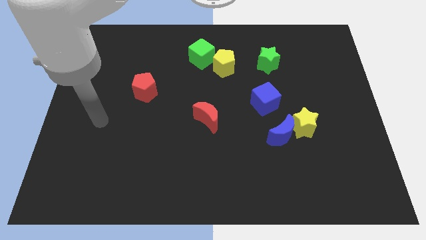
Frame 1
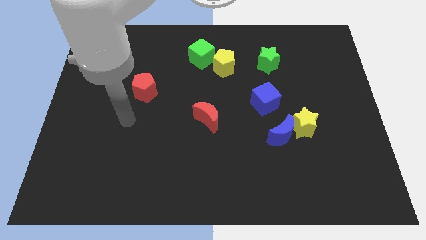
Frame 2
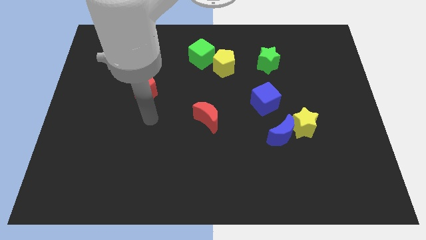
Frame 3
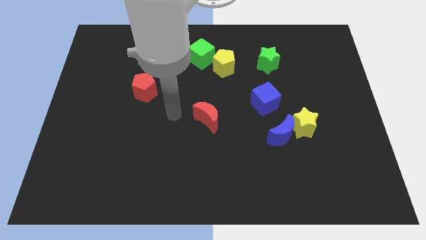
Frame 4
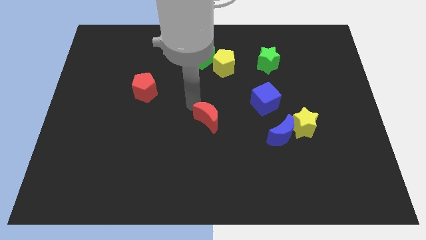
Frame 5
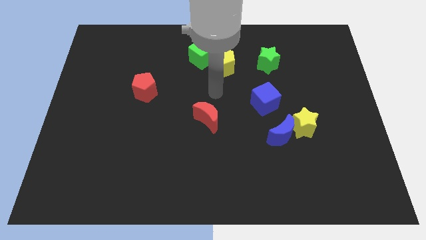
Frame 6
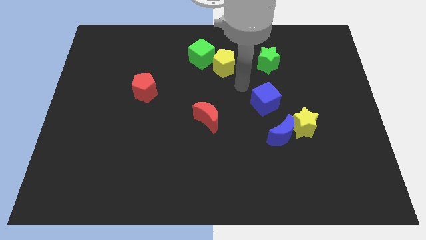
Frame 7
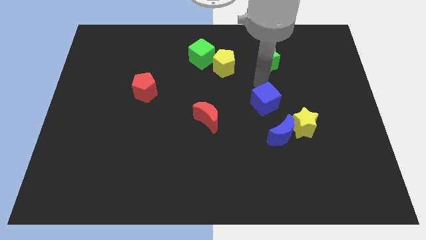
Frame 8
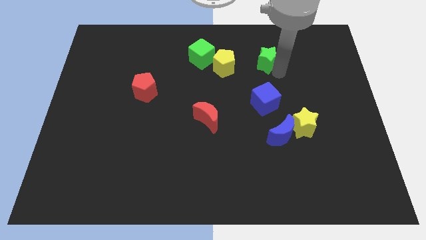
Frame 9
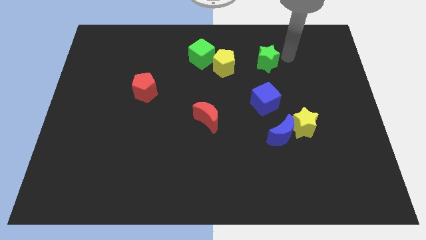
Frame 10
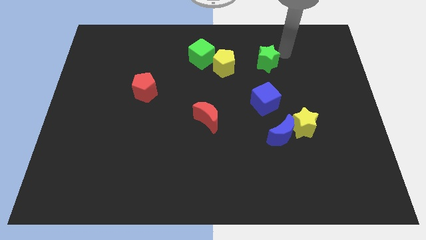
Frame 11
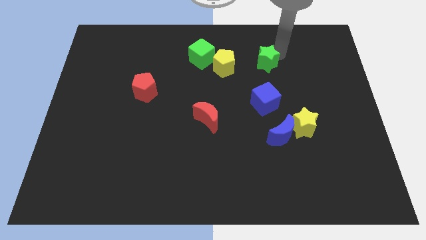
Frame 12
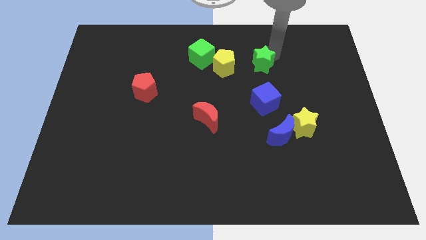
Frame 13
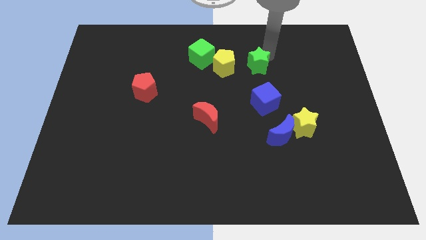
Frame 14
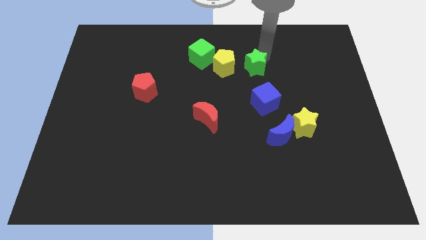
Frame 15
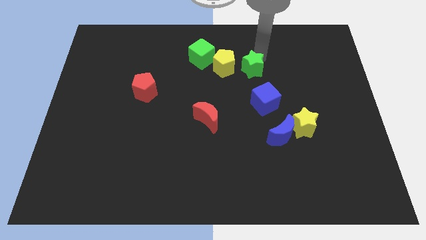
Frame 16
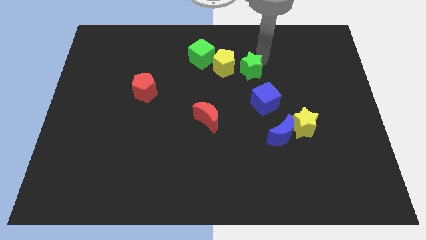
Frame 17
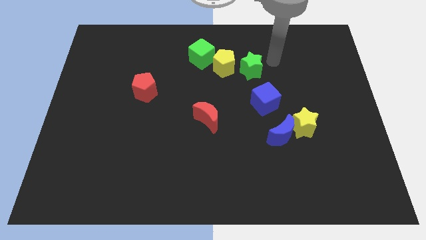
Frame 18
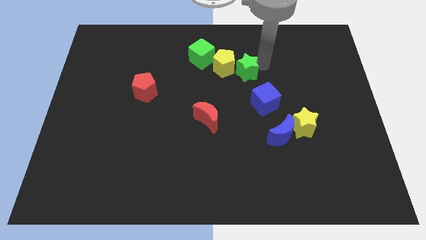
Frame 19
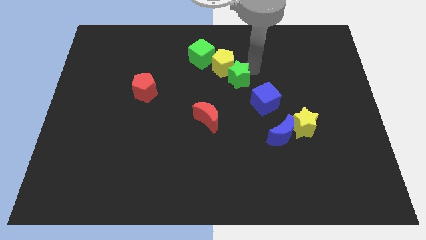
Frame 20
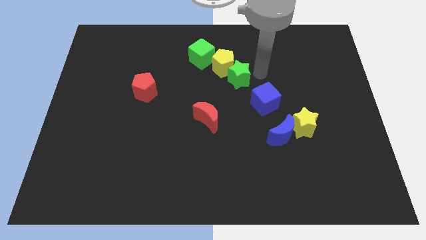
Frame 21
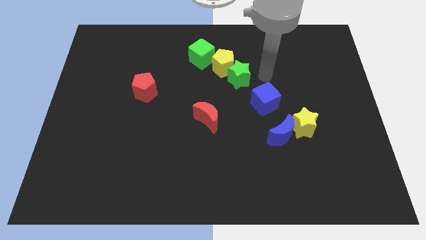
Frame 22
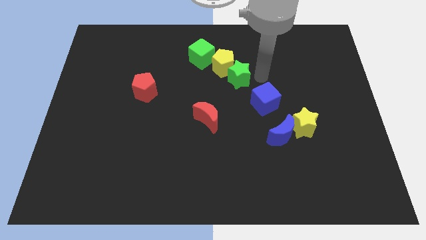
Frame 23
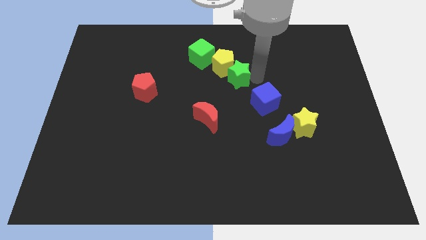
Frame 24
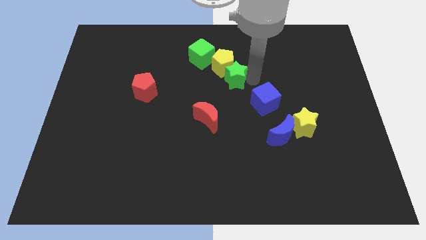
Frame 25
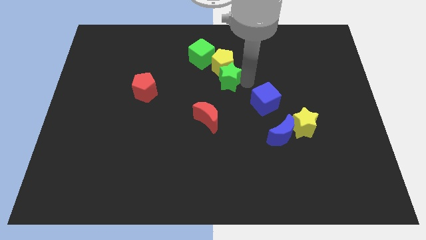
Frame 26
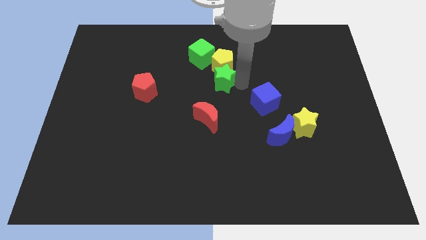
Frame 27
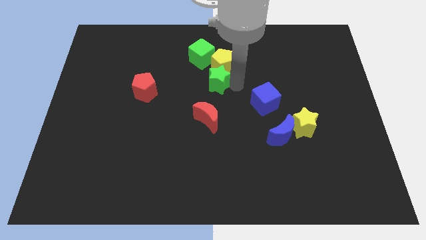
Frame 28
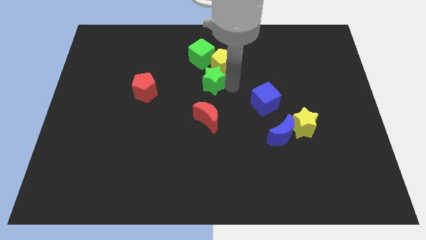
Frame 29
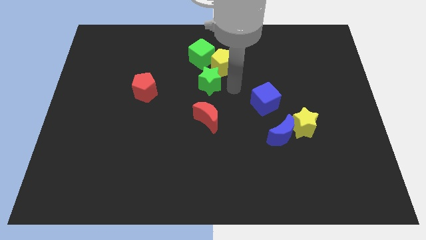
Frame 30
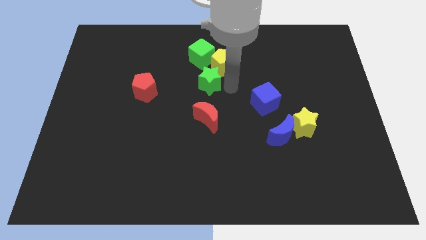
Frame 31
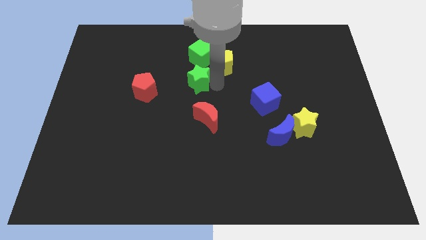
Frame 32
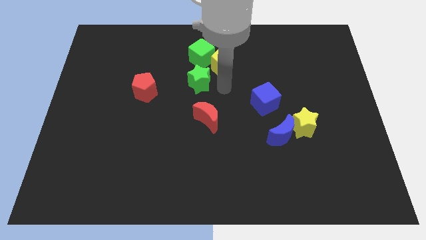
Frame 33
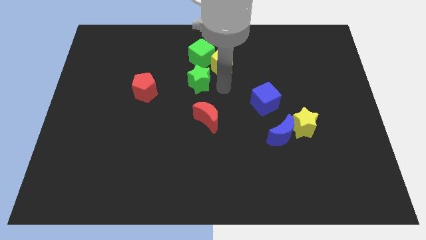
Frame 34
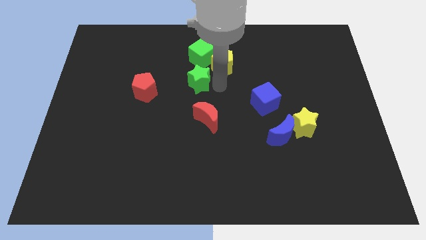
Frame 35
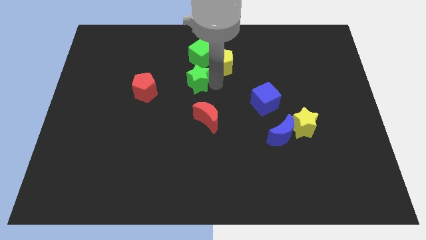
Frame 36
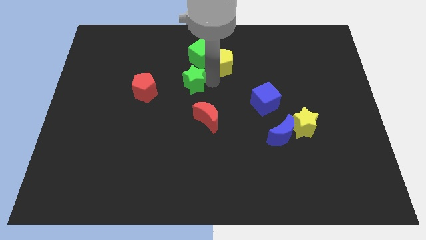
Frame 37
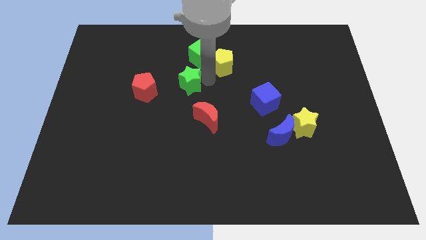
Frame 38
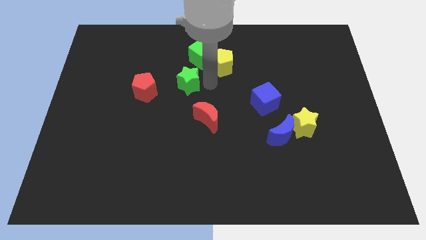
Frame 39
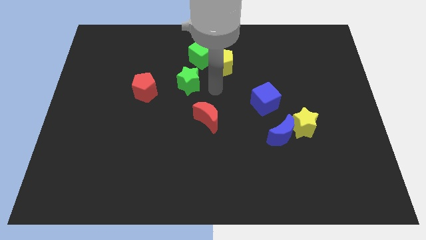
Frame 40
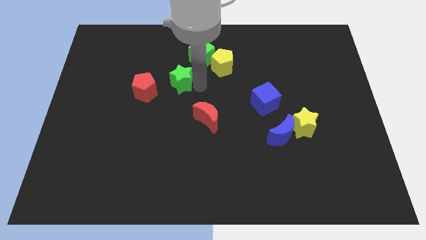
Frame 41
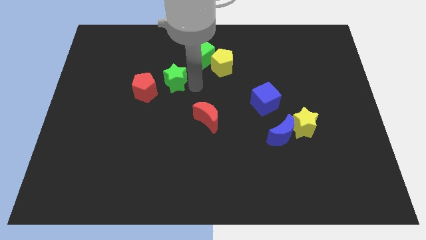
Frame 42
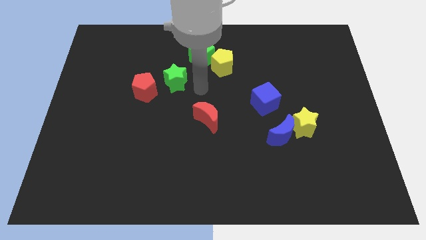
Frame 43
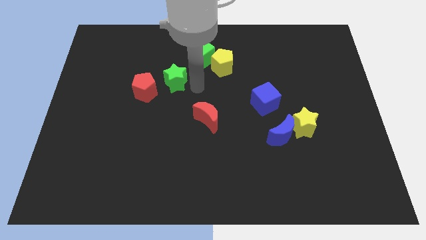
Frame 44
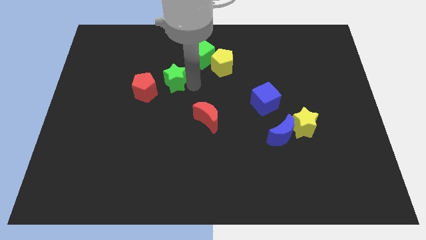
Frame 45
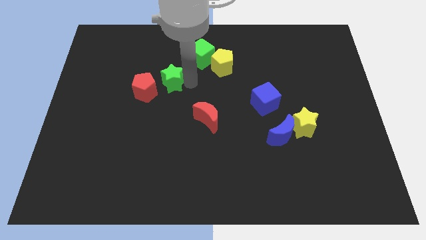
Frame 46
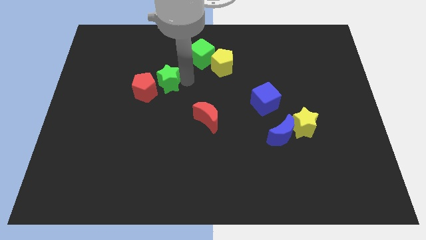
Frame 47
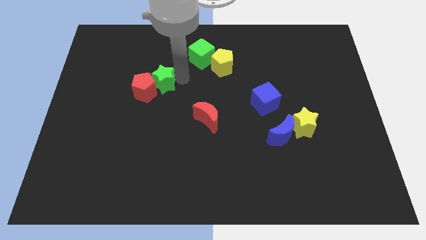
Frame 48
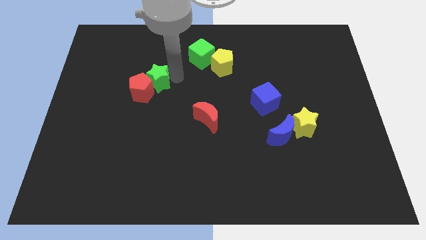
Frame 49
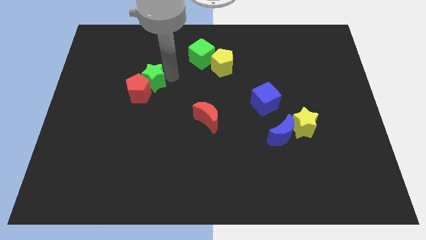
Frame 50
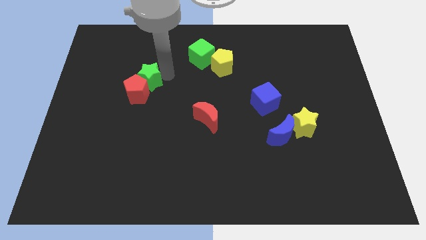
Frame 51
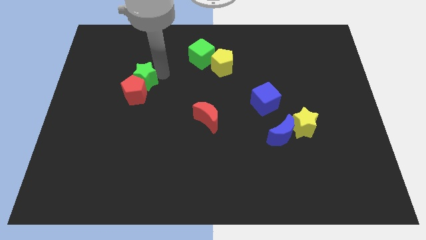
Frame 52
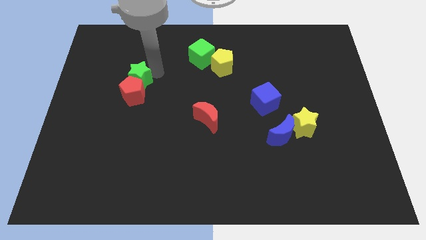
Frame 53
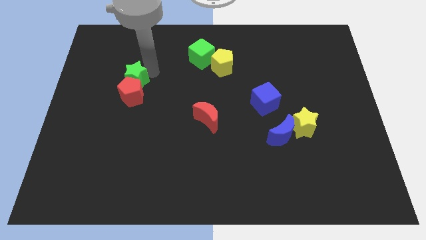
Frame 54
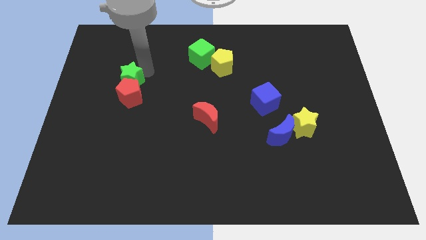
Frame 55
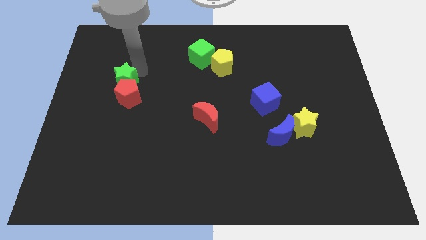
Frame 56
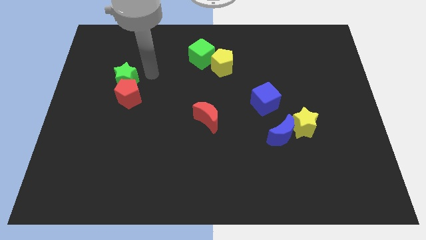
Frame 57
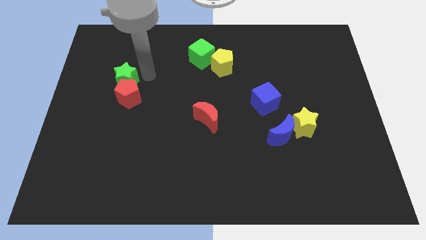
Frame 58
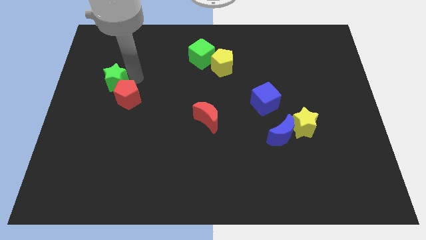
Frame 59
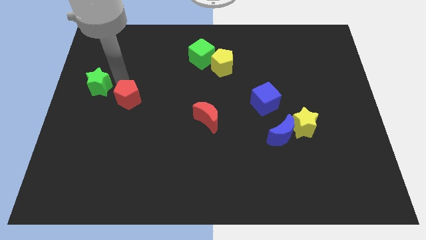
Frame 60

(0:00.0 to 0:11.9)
move the green star to the left side of the board
